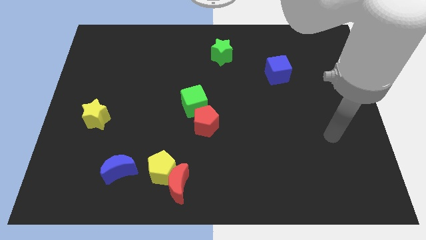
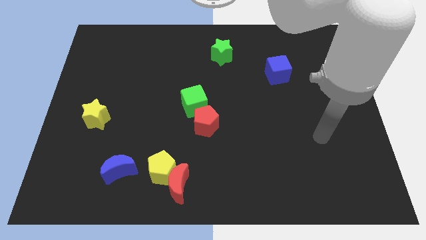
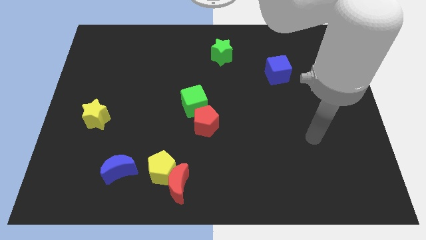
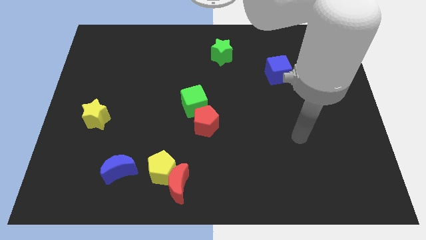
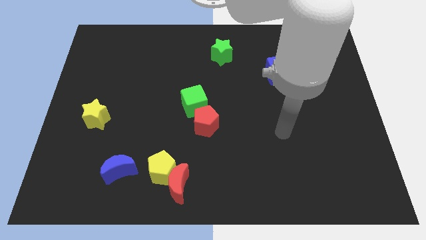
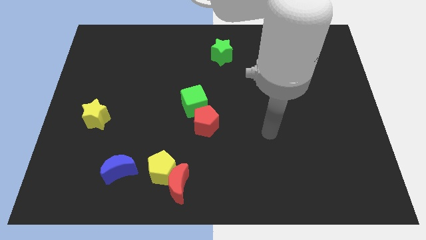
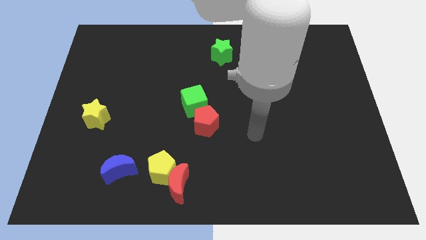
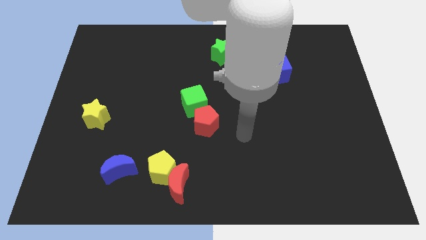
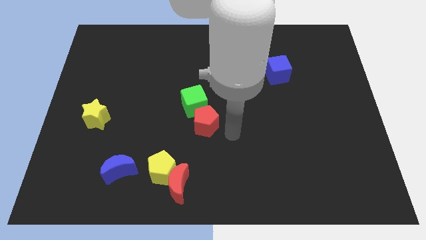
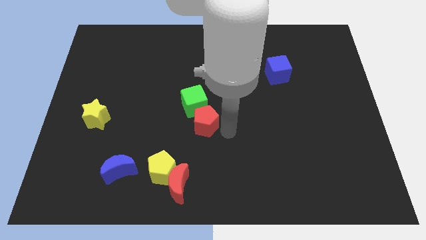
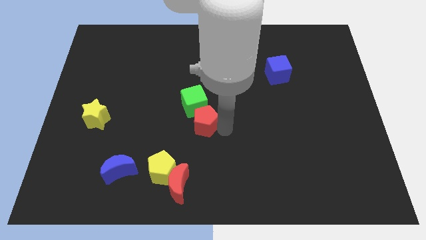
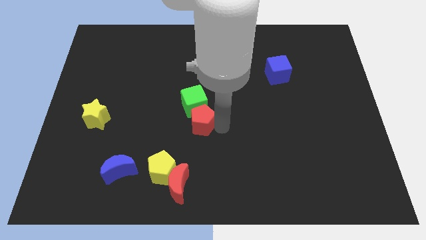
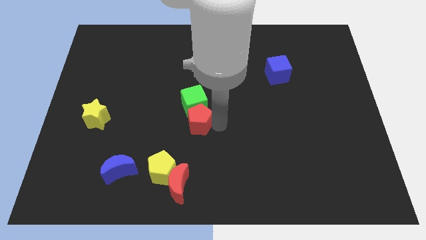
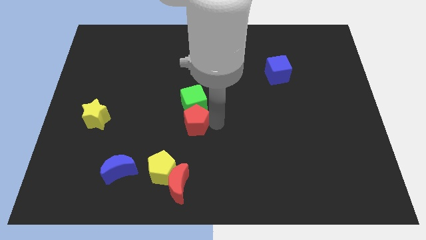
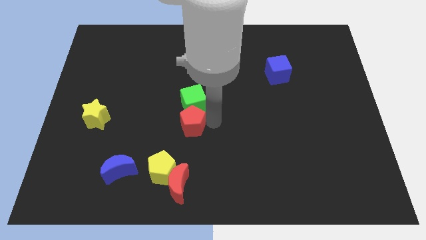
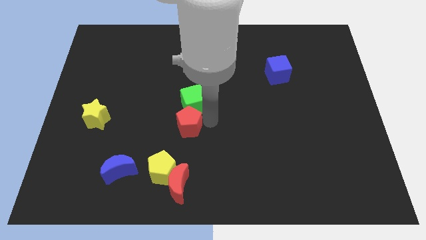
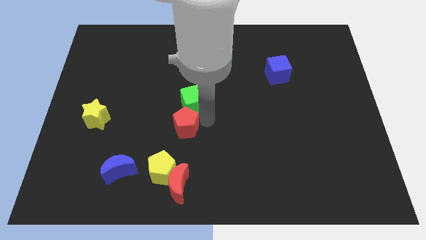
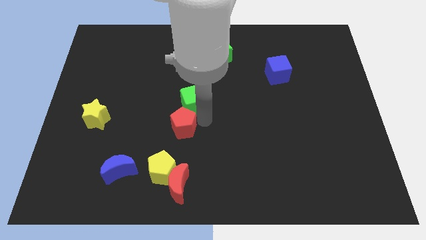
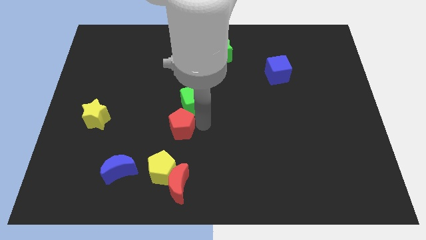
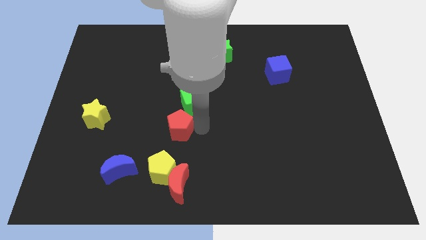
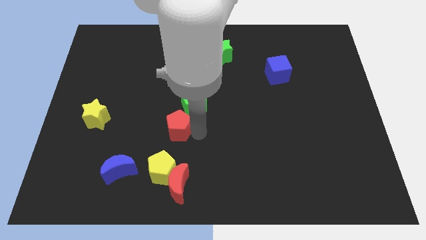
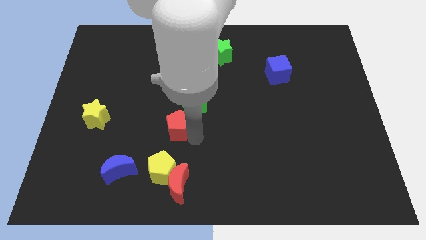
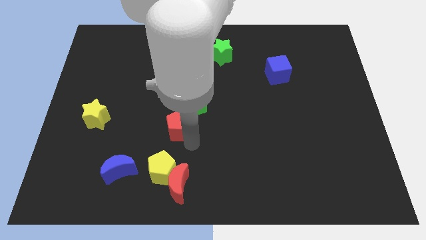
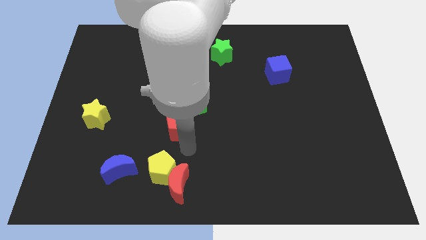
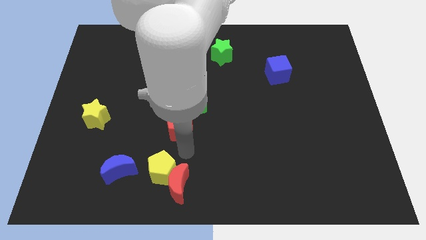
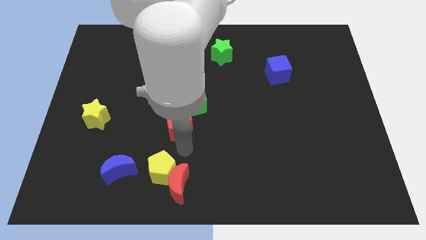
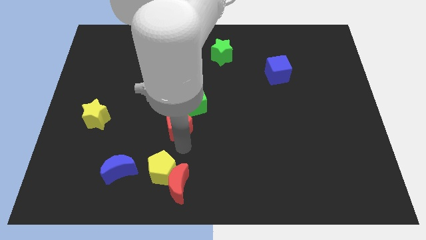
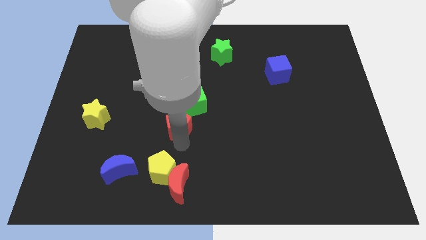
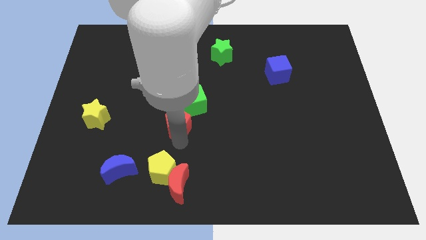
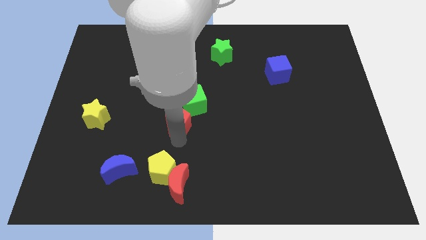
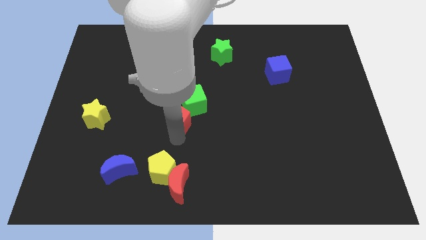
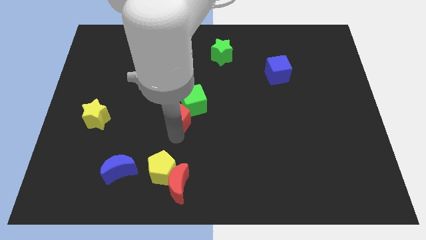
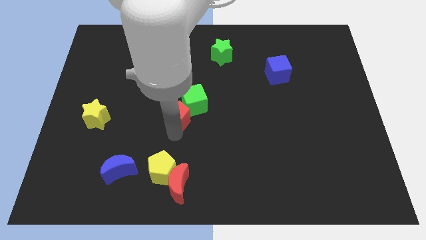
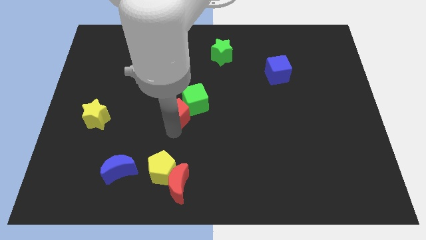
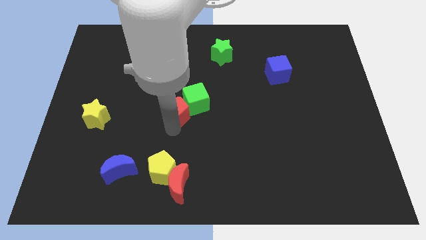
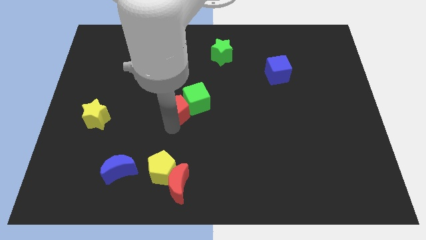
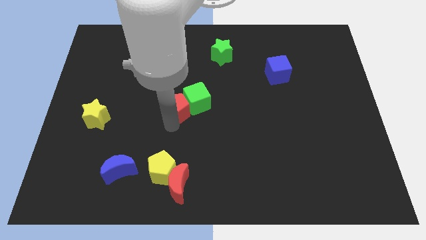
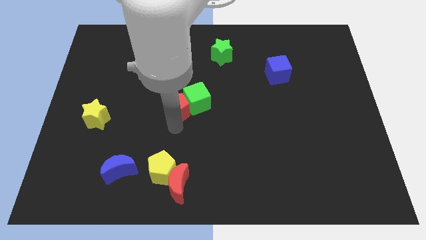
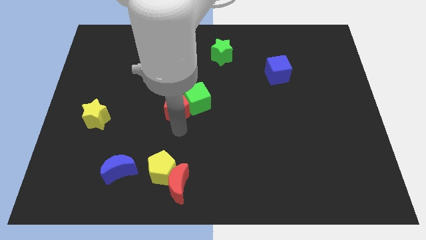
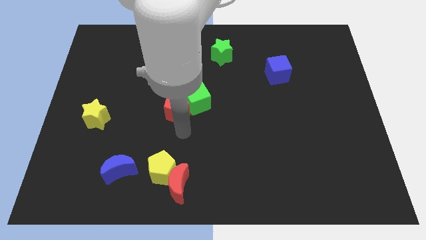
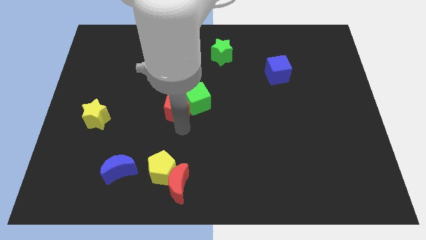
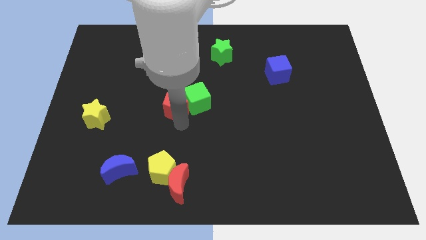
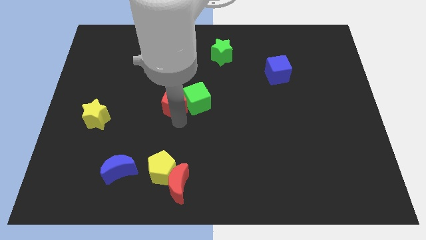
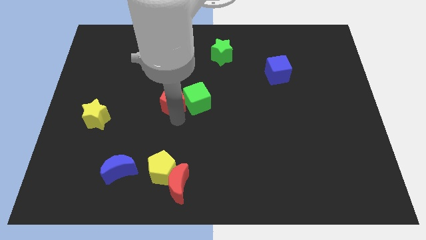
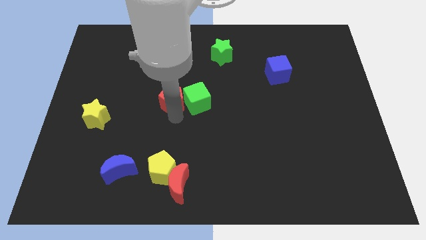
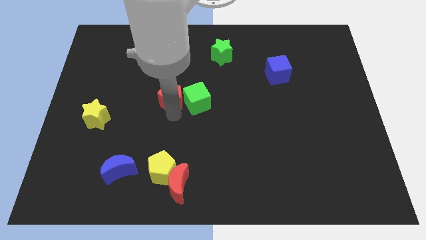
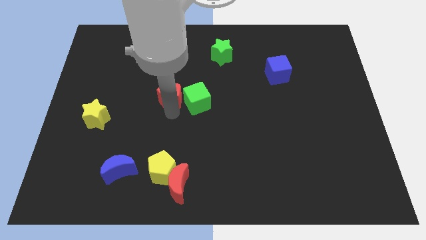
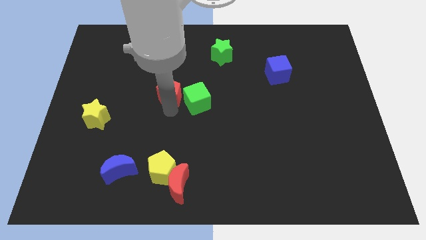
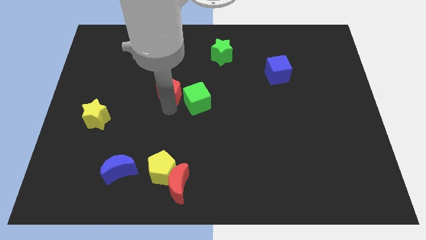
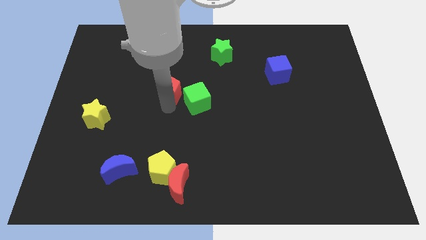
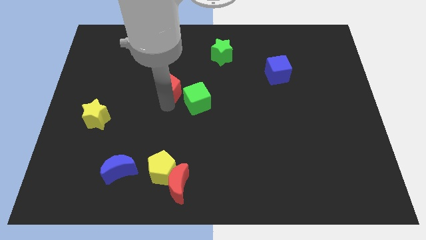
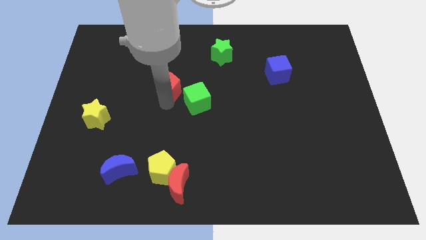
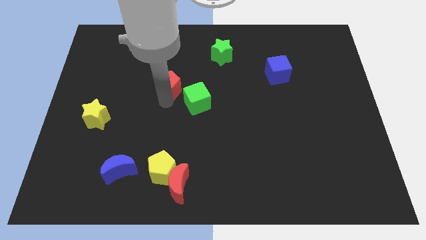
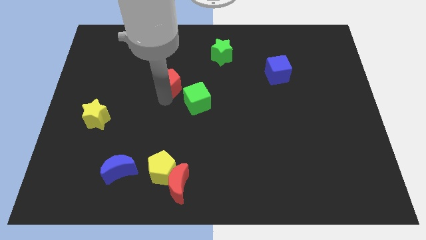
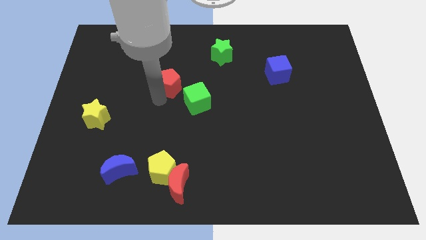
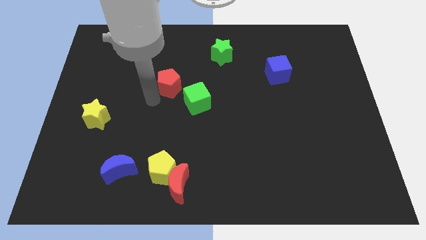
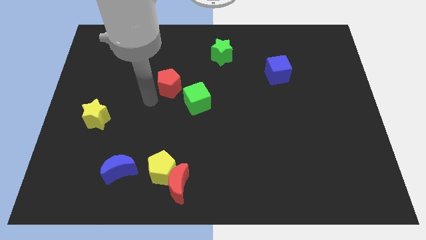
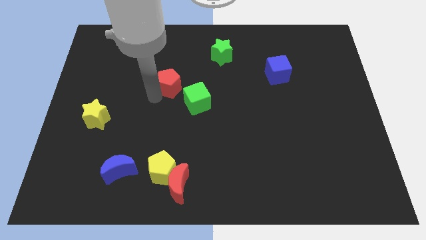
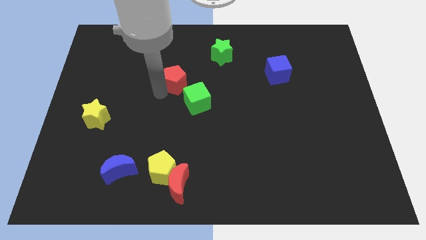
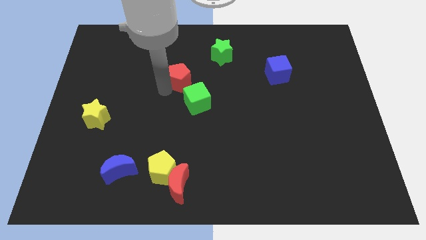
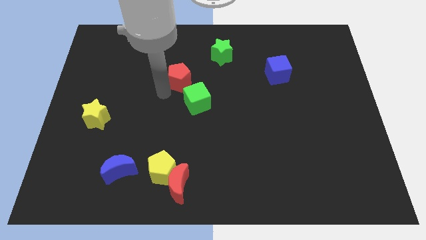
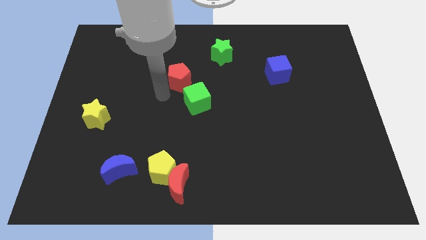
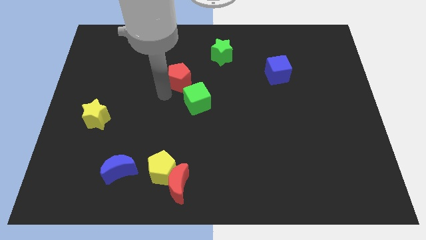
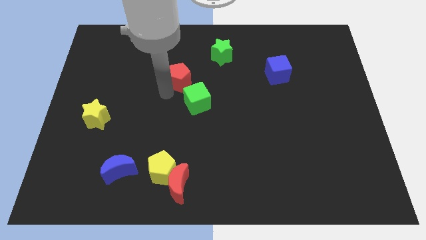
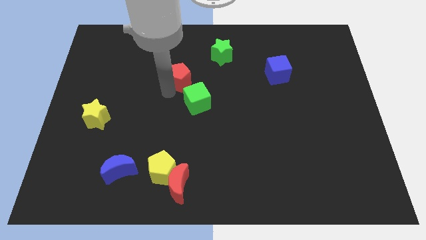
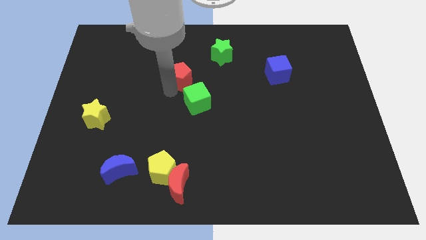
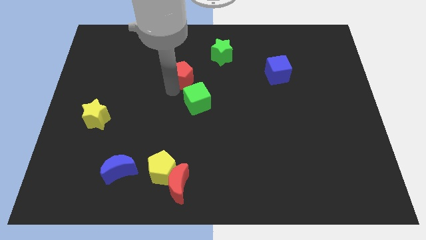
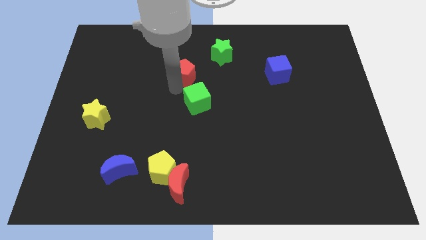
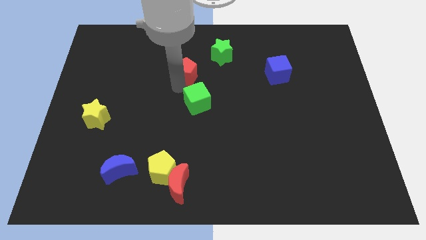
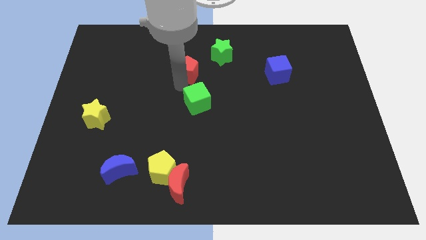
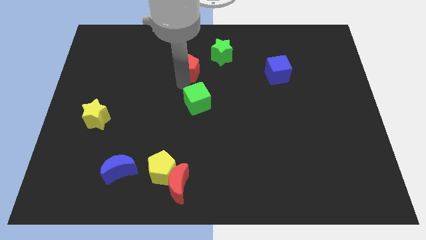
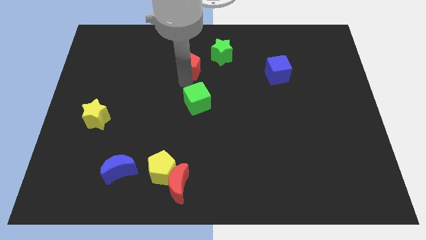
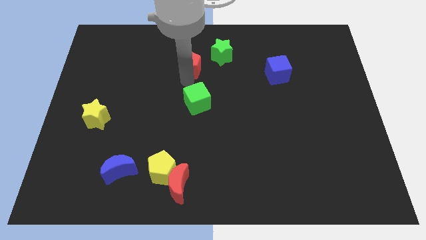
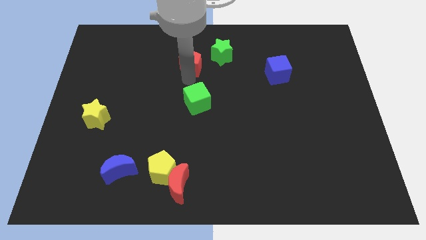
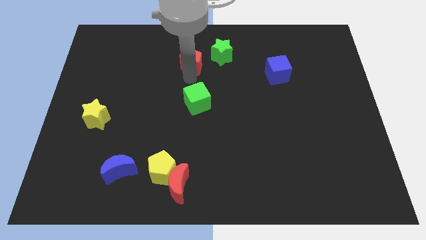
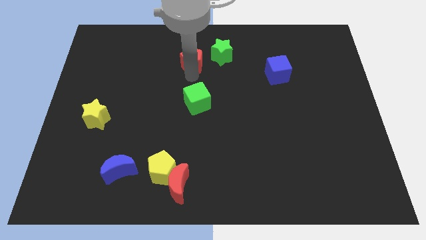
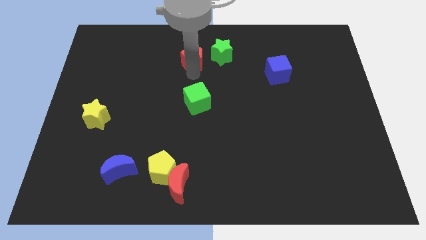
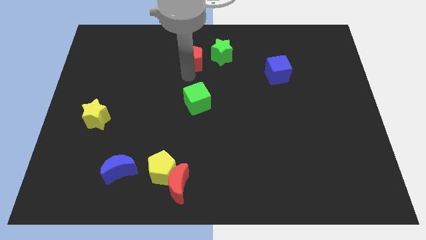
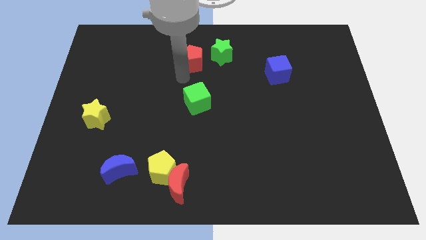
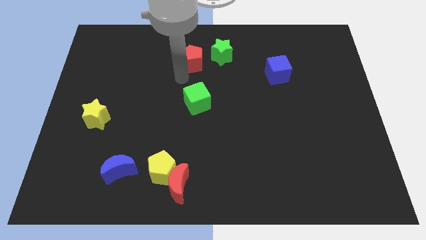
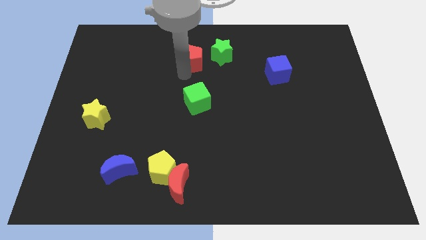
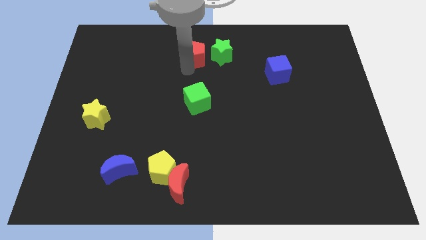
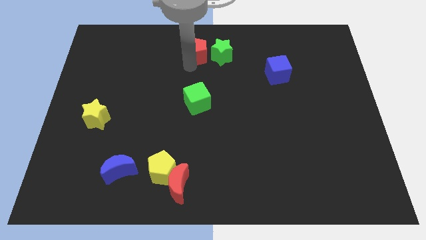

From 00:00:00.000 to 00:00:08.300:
push the red pentagon to the top
